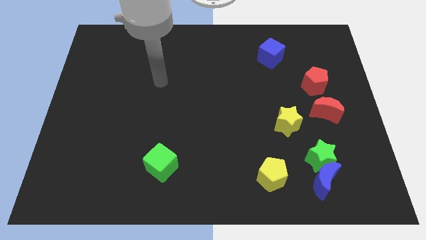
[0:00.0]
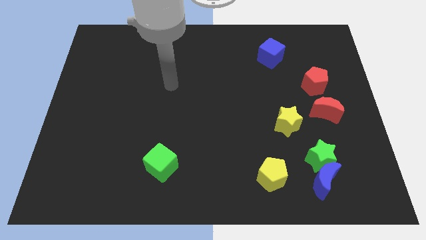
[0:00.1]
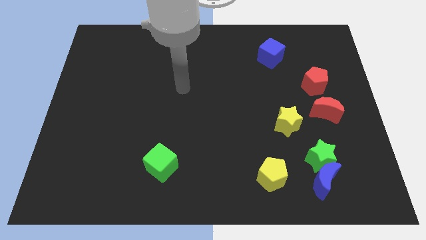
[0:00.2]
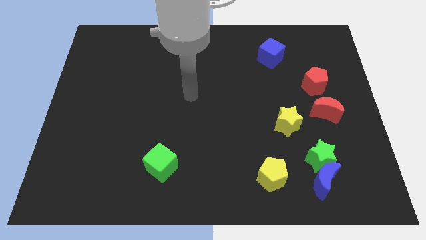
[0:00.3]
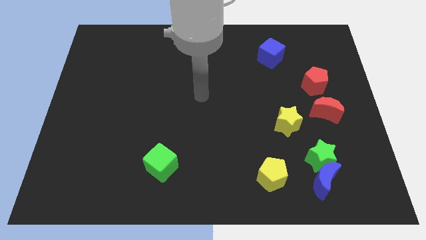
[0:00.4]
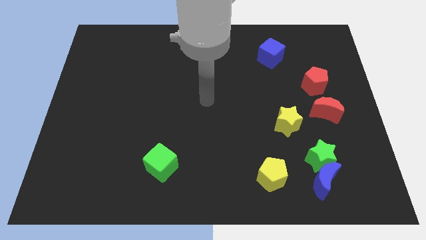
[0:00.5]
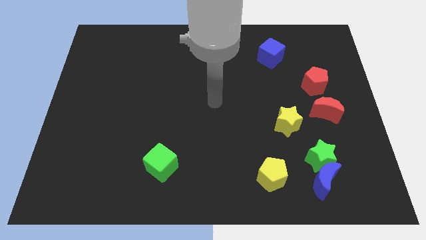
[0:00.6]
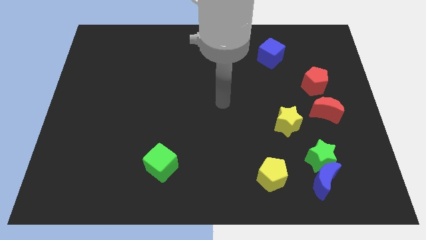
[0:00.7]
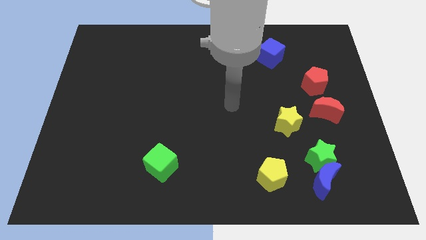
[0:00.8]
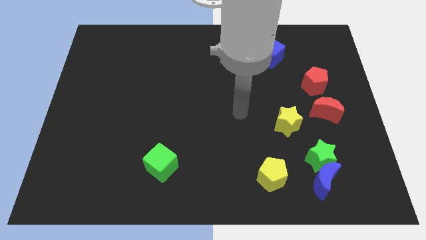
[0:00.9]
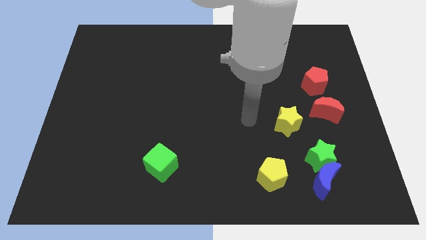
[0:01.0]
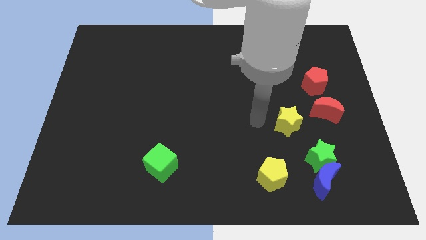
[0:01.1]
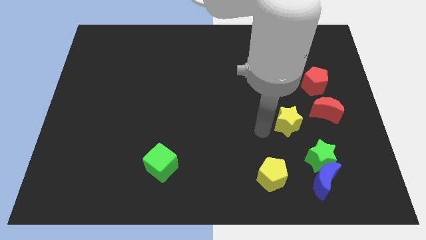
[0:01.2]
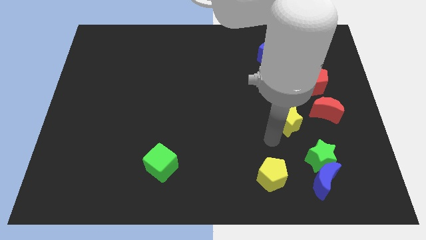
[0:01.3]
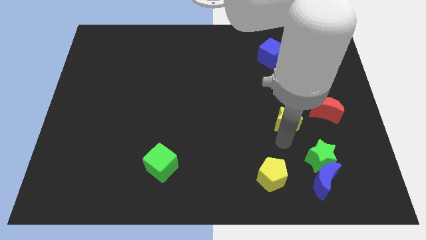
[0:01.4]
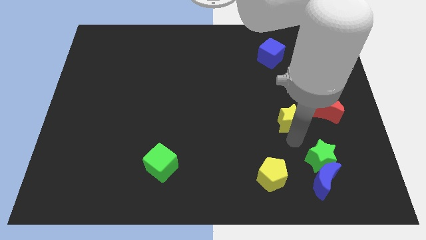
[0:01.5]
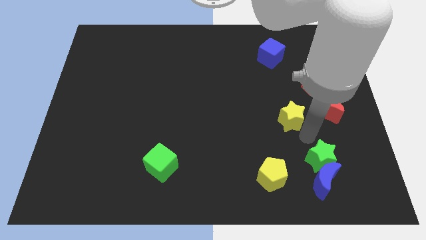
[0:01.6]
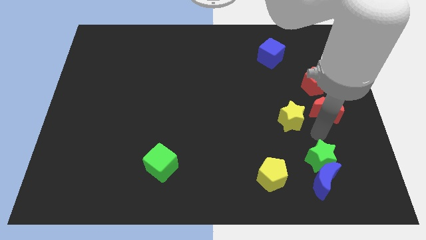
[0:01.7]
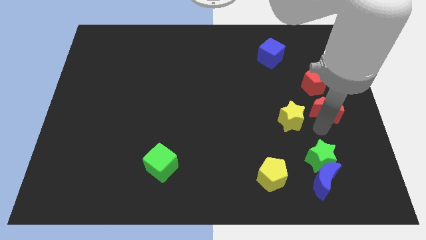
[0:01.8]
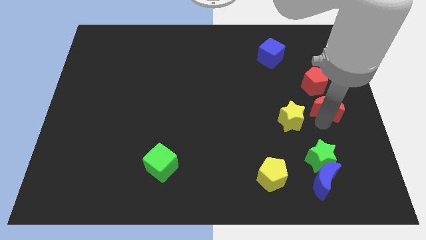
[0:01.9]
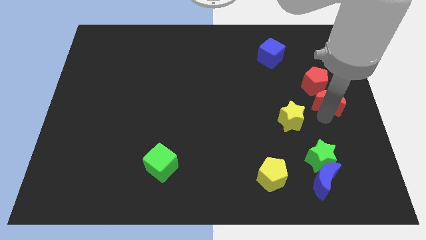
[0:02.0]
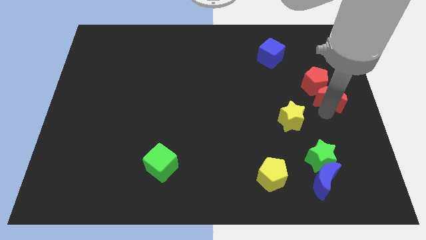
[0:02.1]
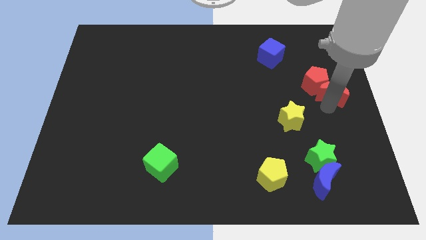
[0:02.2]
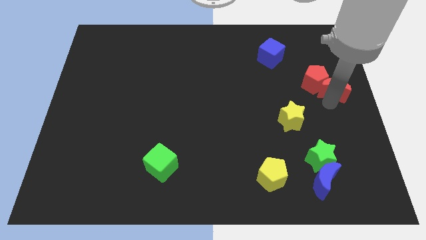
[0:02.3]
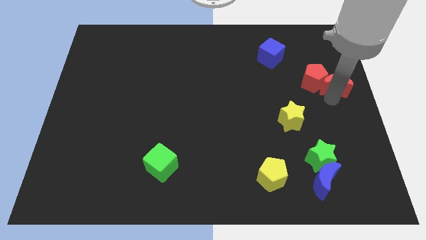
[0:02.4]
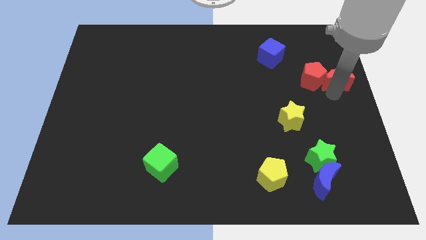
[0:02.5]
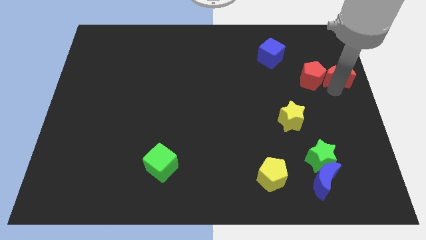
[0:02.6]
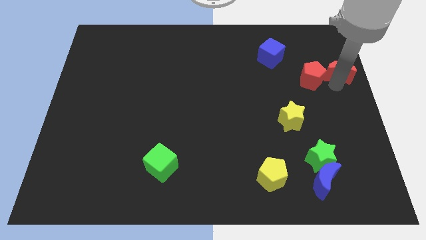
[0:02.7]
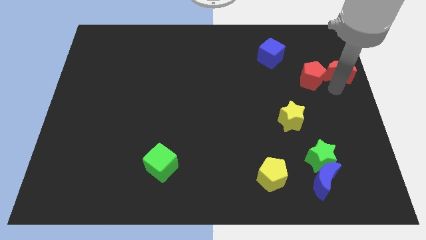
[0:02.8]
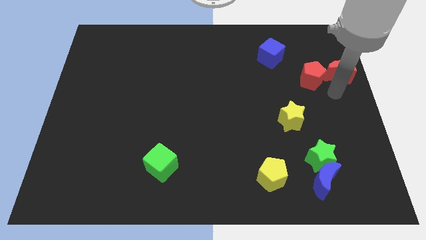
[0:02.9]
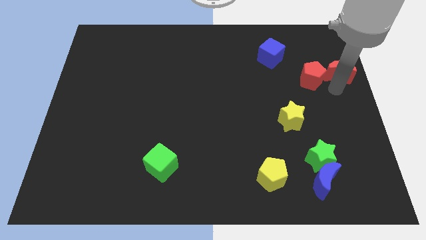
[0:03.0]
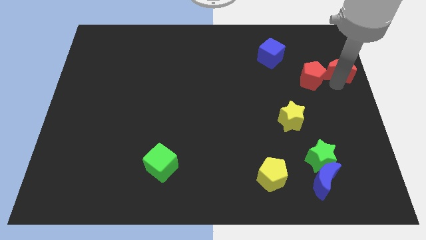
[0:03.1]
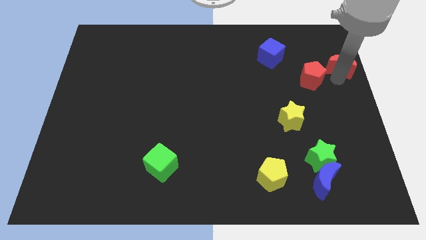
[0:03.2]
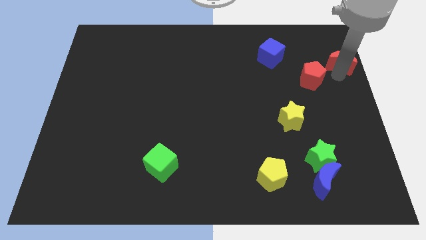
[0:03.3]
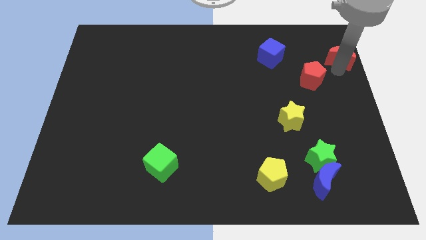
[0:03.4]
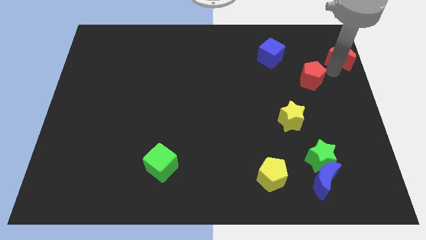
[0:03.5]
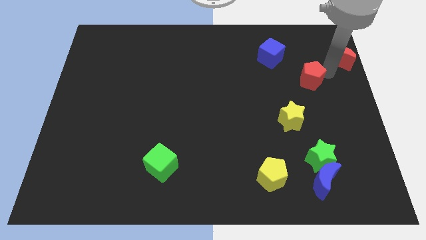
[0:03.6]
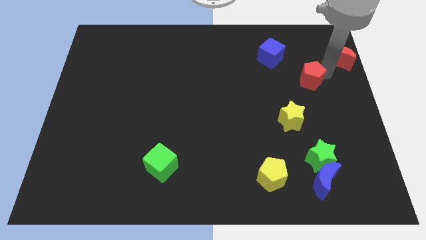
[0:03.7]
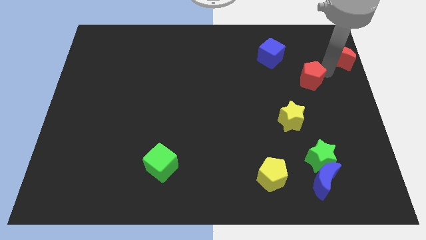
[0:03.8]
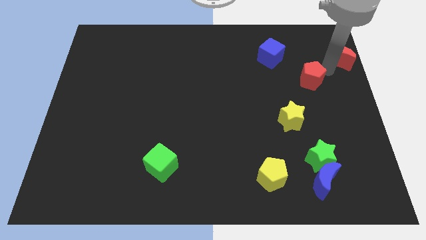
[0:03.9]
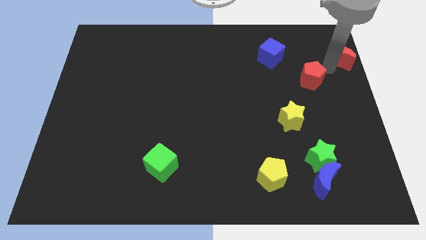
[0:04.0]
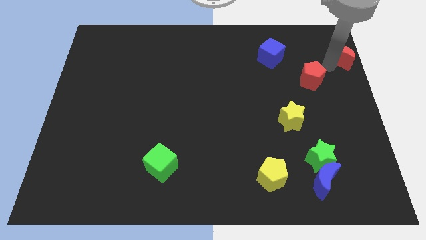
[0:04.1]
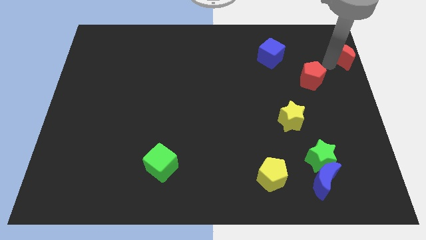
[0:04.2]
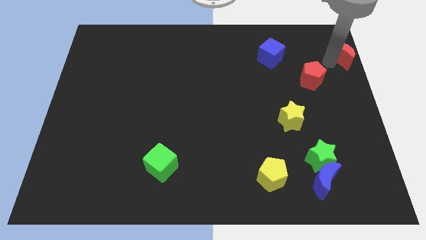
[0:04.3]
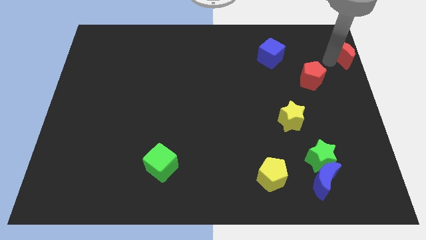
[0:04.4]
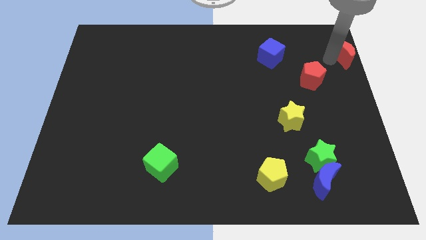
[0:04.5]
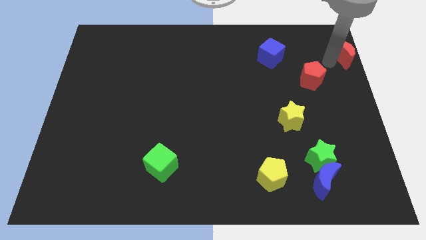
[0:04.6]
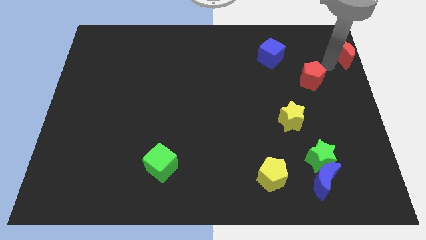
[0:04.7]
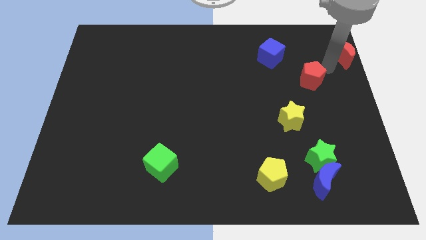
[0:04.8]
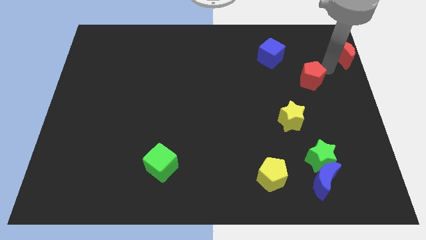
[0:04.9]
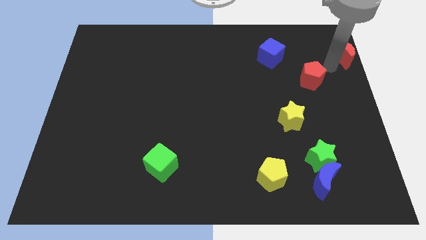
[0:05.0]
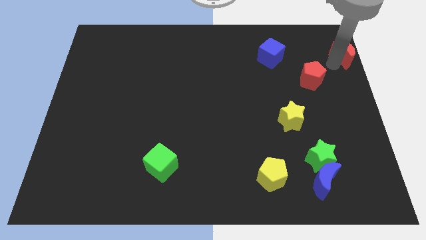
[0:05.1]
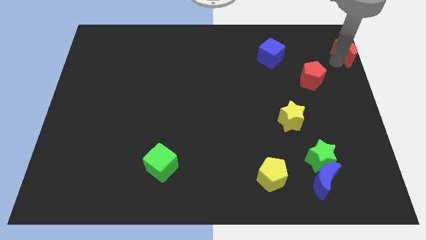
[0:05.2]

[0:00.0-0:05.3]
move the red moon to the top right of the board

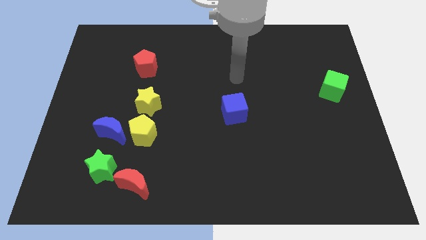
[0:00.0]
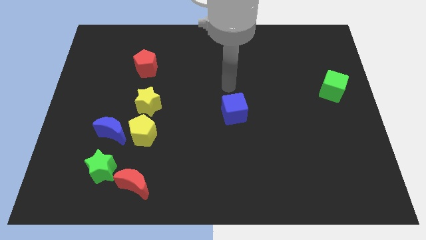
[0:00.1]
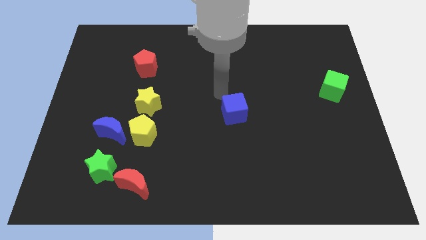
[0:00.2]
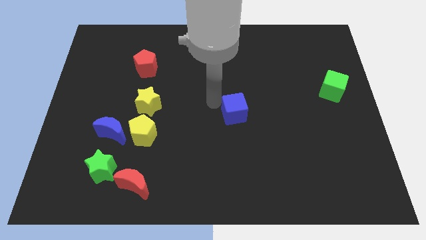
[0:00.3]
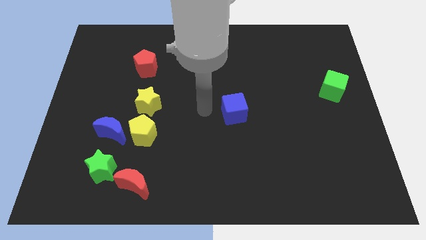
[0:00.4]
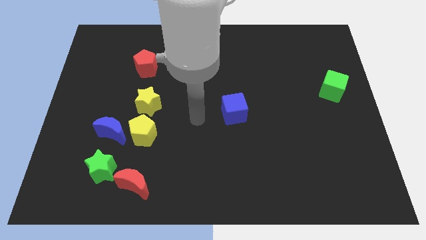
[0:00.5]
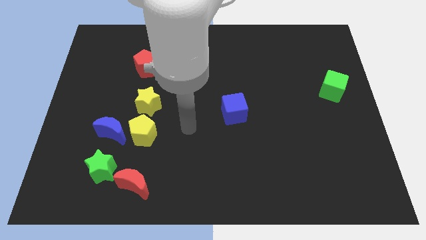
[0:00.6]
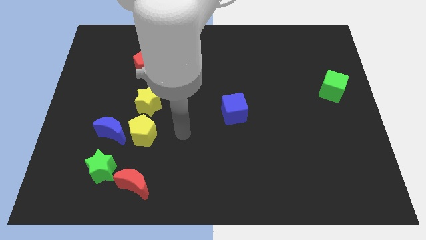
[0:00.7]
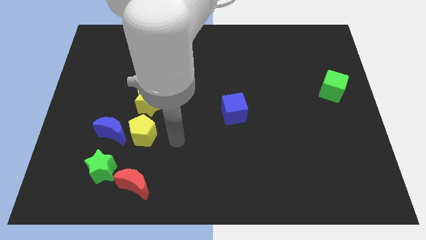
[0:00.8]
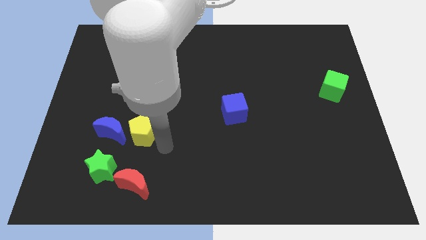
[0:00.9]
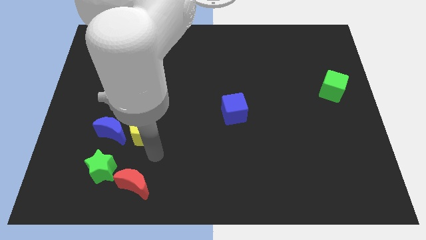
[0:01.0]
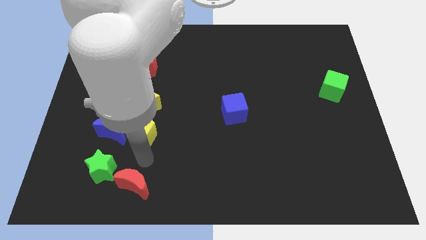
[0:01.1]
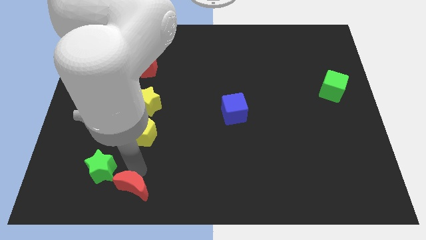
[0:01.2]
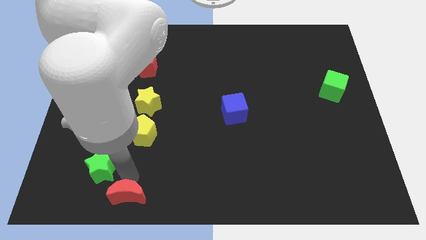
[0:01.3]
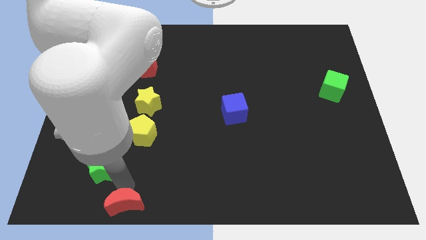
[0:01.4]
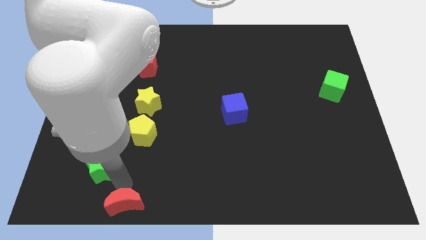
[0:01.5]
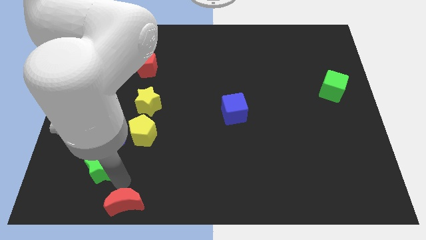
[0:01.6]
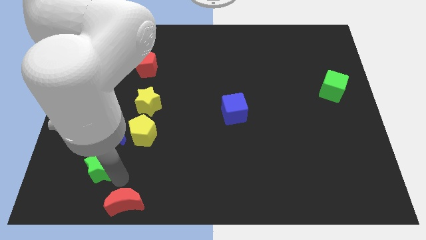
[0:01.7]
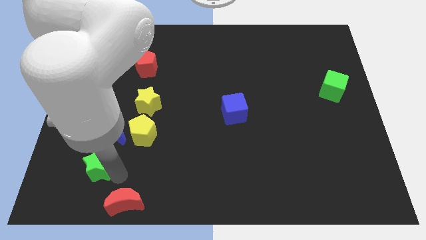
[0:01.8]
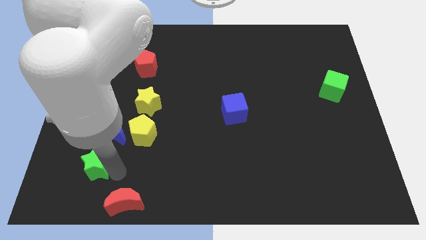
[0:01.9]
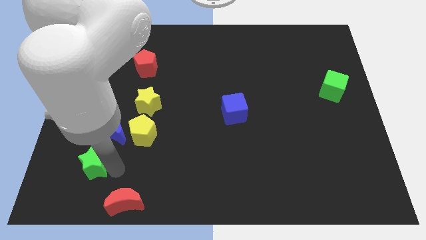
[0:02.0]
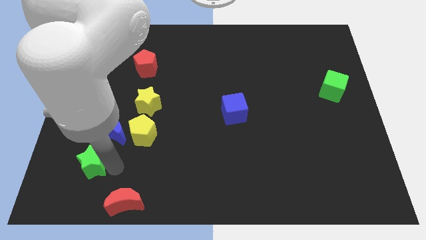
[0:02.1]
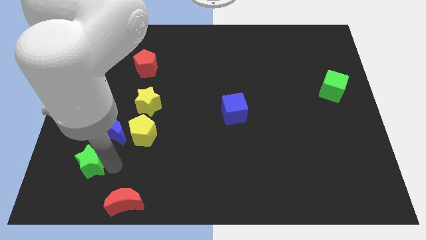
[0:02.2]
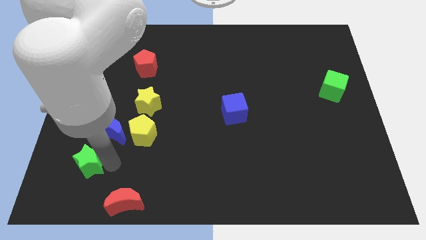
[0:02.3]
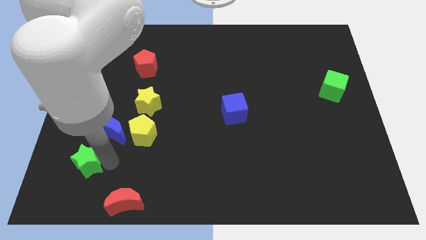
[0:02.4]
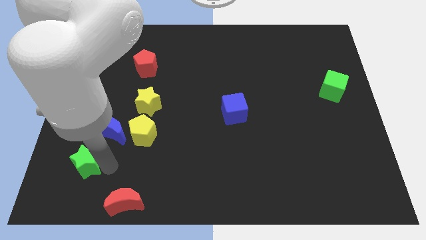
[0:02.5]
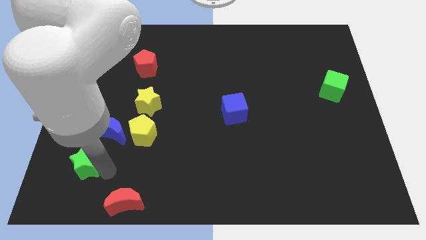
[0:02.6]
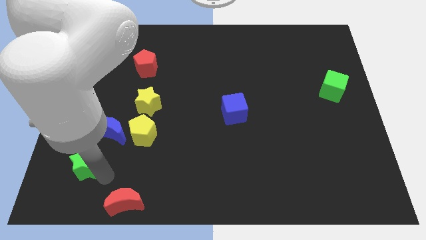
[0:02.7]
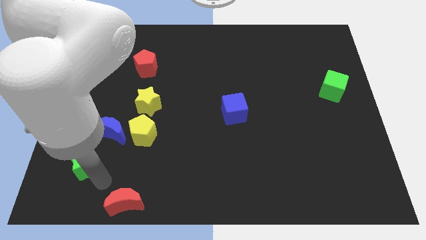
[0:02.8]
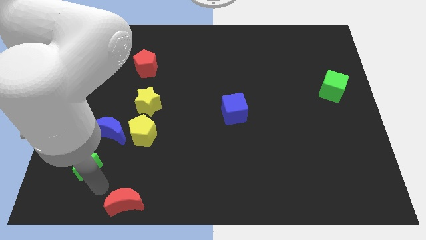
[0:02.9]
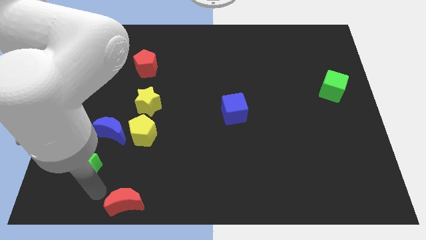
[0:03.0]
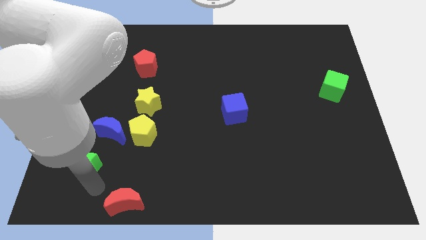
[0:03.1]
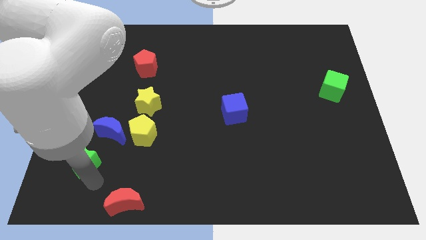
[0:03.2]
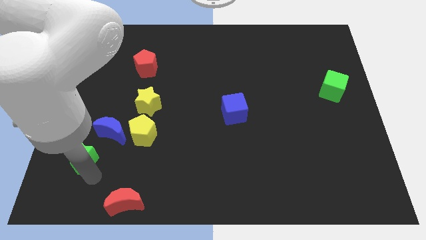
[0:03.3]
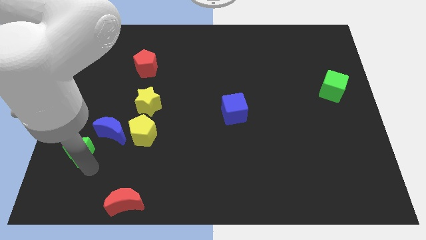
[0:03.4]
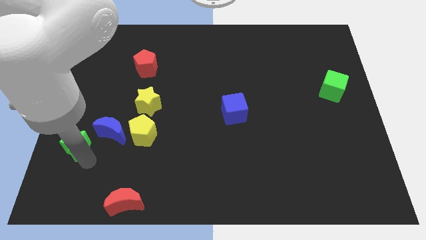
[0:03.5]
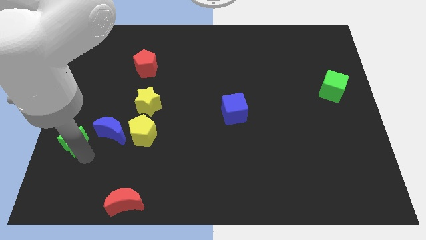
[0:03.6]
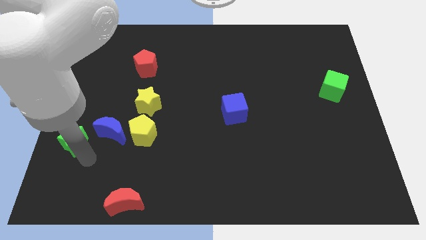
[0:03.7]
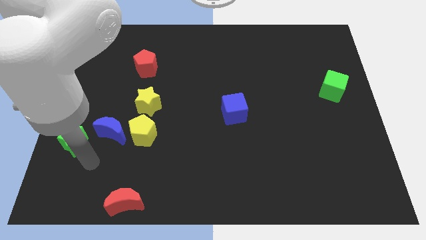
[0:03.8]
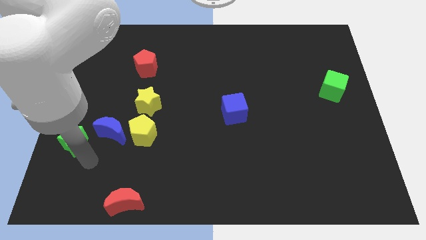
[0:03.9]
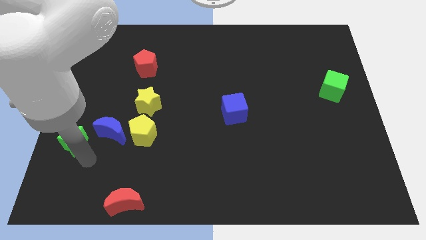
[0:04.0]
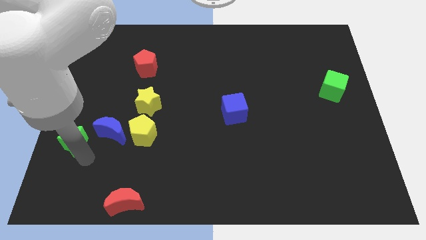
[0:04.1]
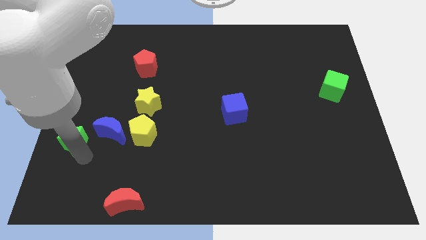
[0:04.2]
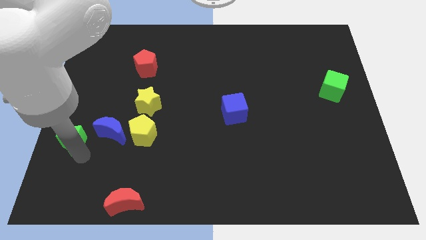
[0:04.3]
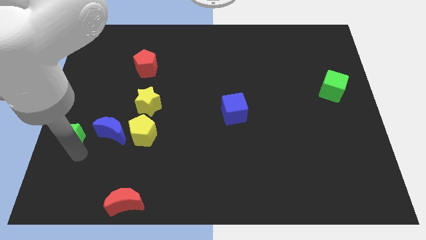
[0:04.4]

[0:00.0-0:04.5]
move the green star to the left side
